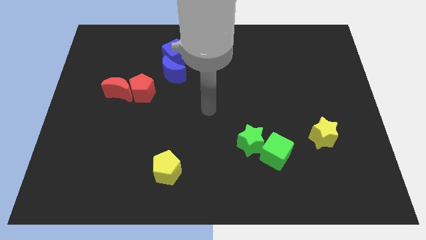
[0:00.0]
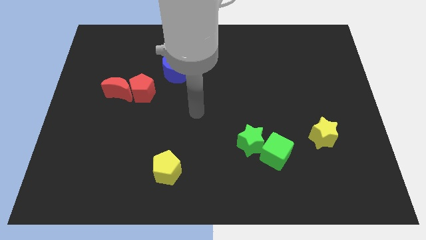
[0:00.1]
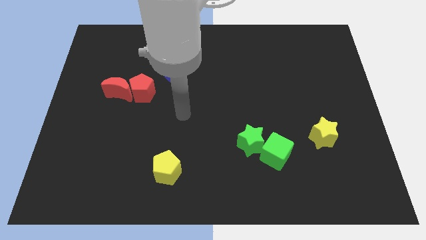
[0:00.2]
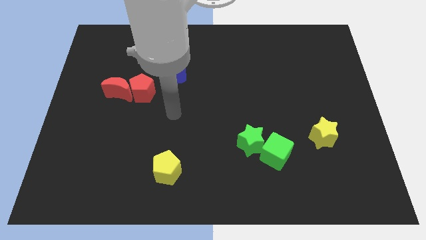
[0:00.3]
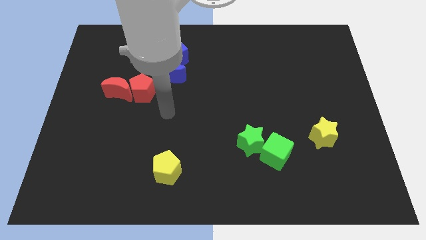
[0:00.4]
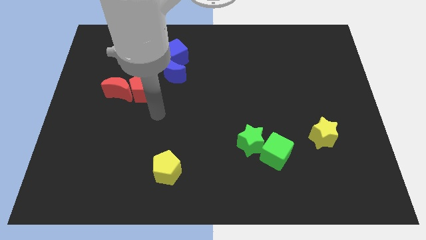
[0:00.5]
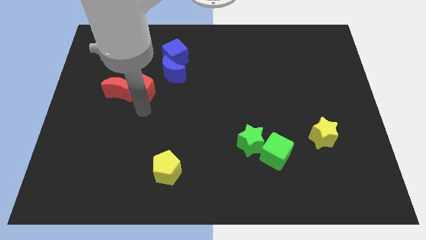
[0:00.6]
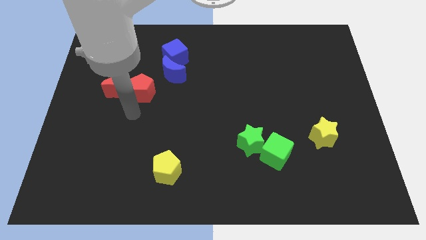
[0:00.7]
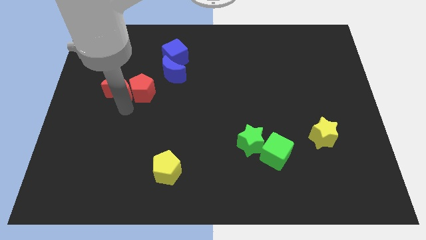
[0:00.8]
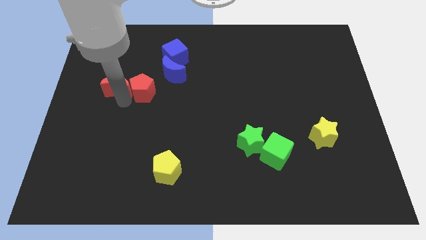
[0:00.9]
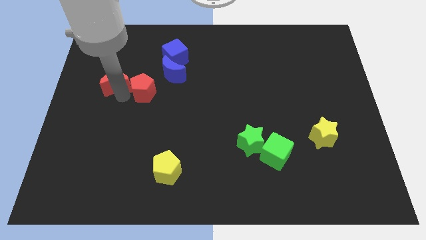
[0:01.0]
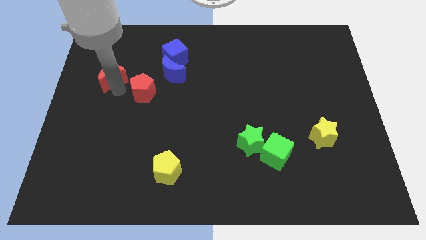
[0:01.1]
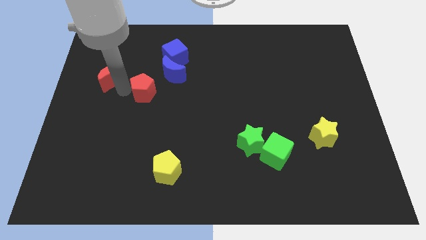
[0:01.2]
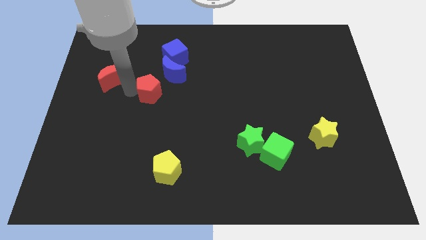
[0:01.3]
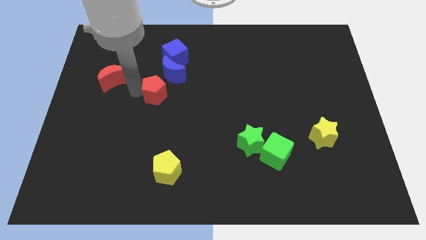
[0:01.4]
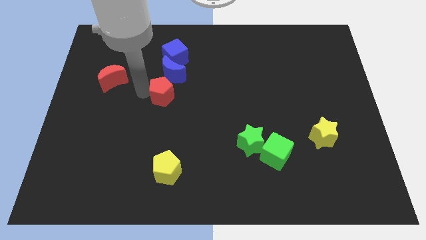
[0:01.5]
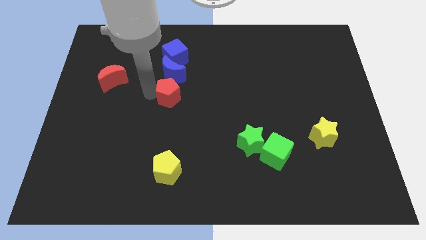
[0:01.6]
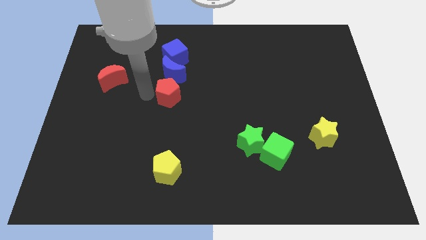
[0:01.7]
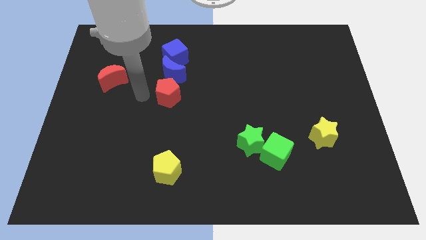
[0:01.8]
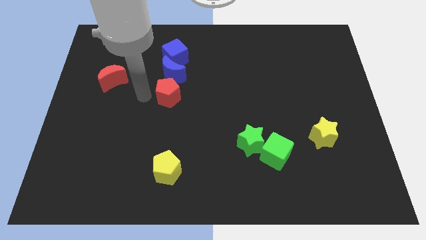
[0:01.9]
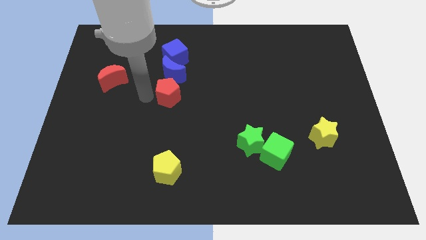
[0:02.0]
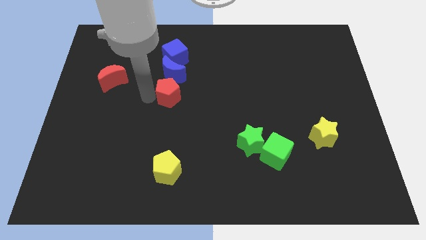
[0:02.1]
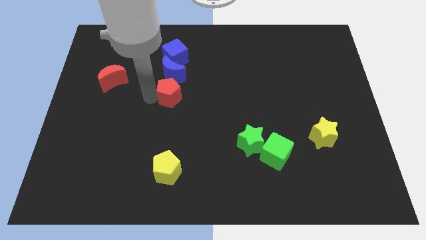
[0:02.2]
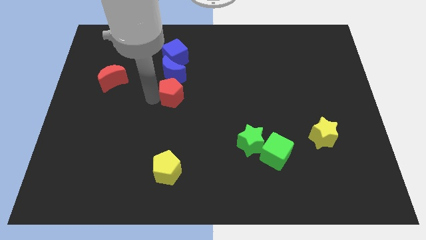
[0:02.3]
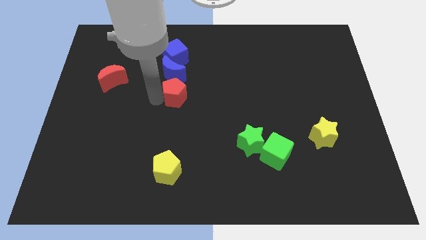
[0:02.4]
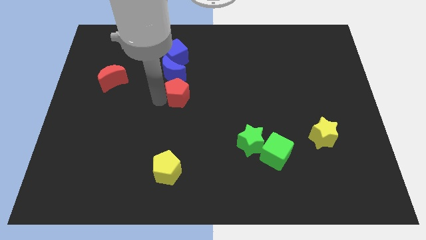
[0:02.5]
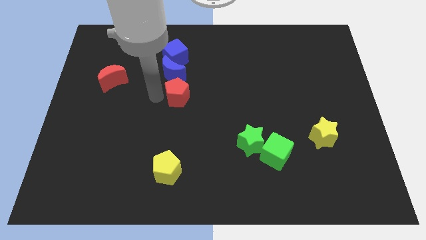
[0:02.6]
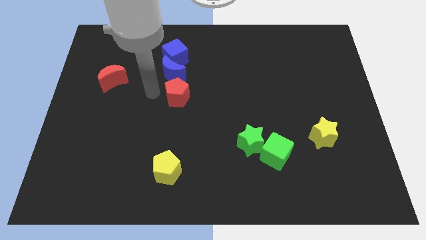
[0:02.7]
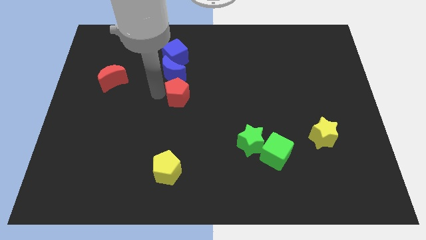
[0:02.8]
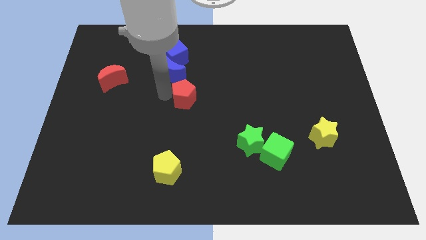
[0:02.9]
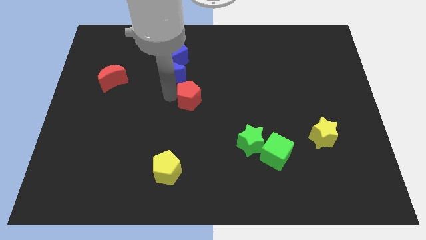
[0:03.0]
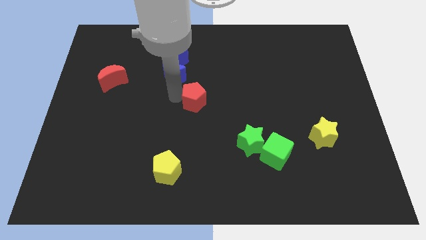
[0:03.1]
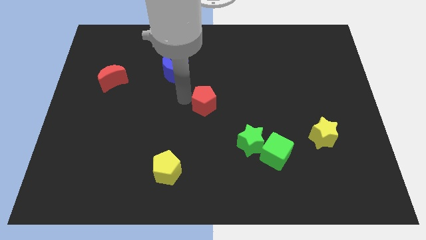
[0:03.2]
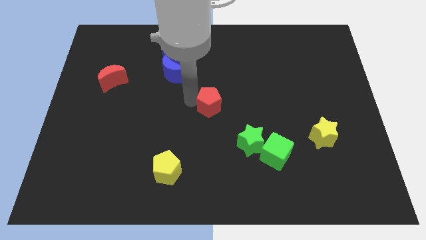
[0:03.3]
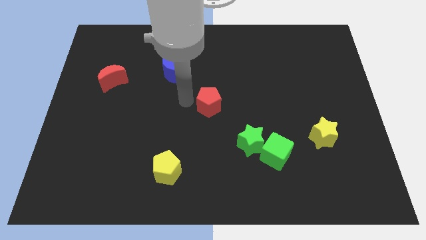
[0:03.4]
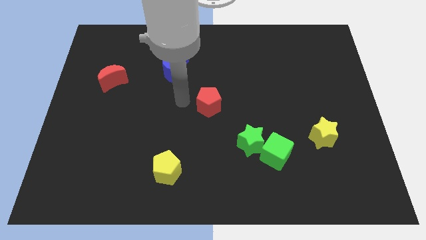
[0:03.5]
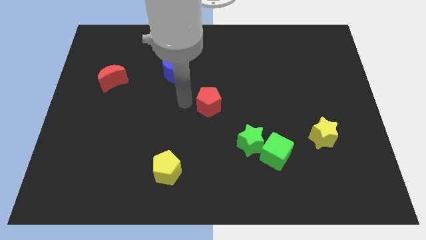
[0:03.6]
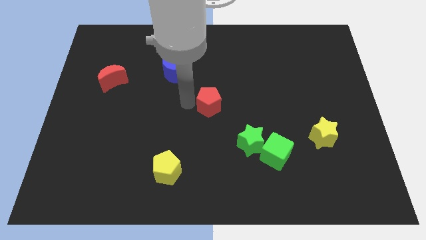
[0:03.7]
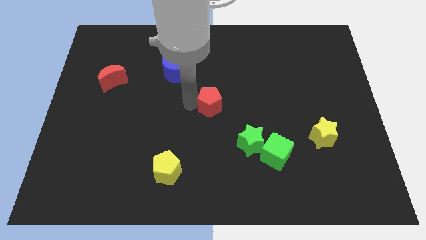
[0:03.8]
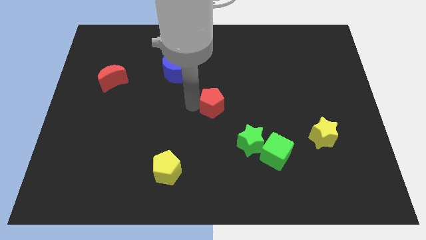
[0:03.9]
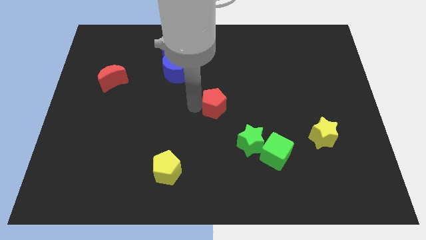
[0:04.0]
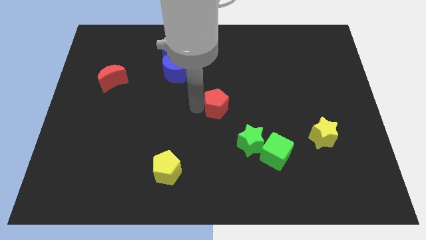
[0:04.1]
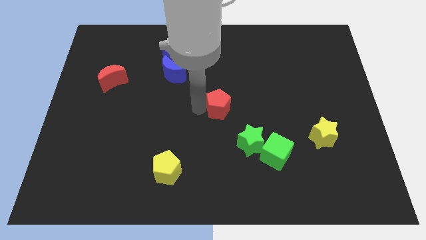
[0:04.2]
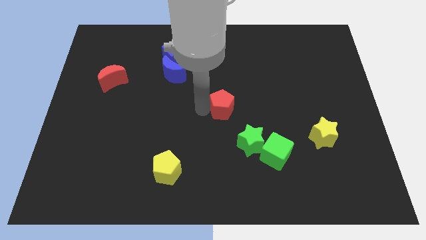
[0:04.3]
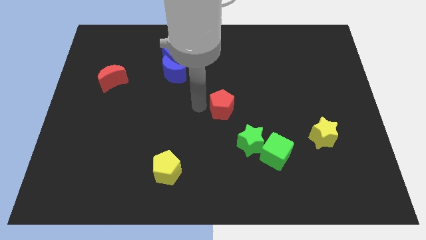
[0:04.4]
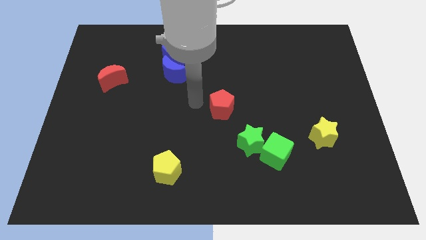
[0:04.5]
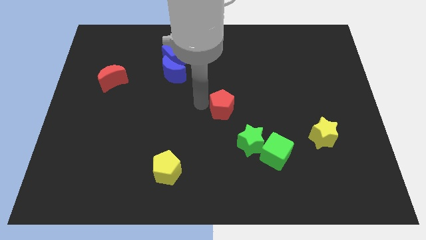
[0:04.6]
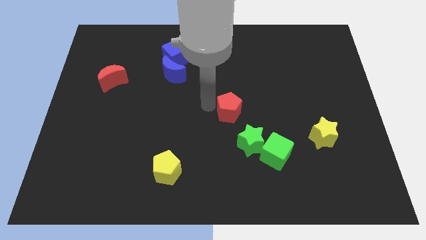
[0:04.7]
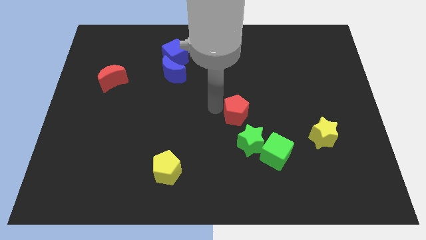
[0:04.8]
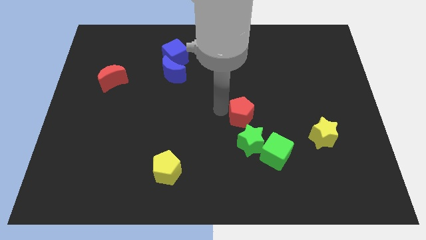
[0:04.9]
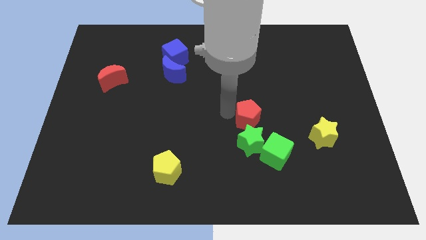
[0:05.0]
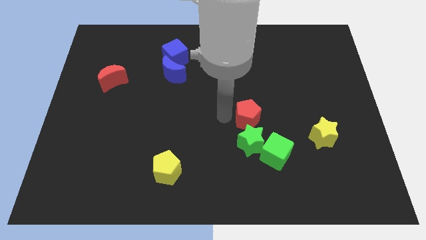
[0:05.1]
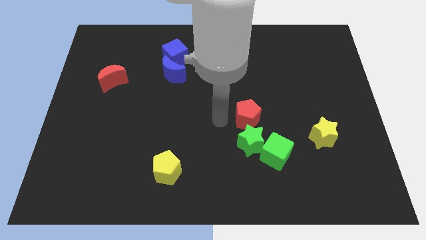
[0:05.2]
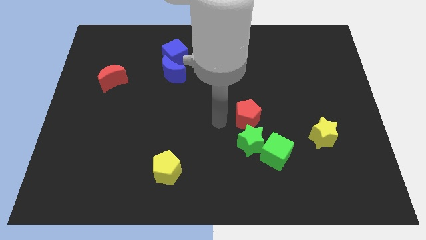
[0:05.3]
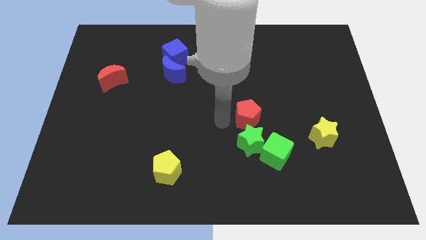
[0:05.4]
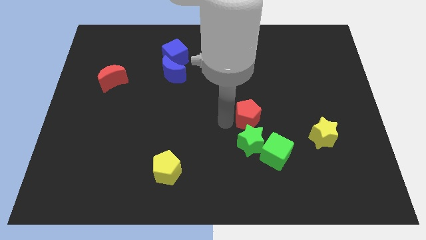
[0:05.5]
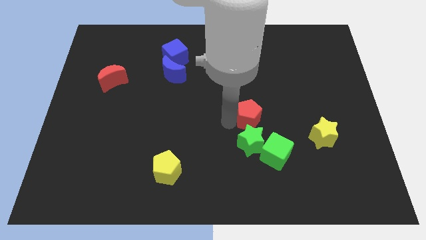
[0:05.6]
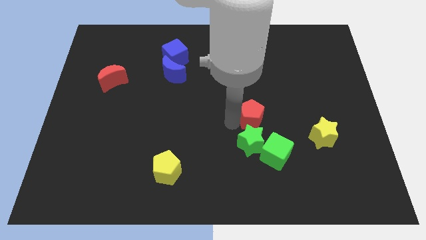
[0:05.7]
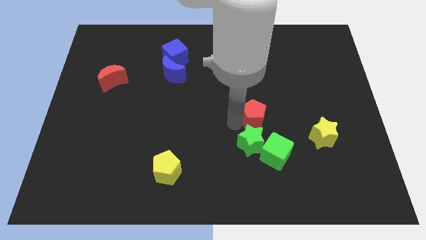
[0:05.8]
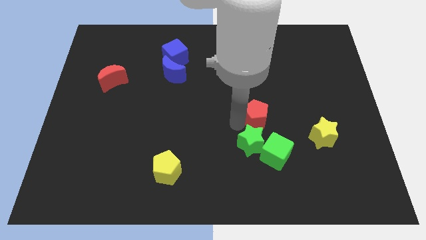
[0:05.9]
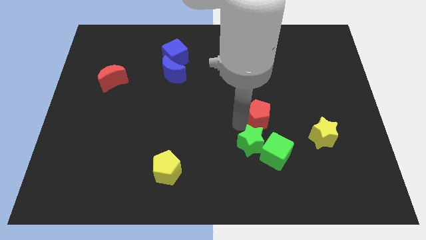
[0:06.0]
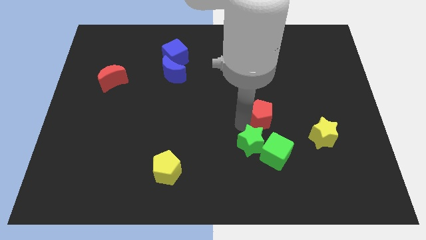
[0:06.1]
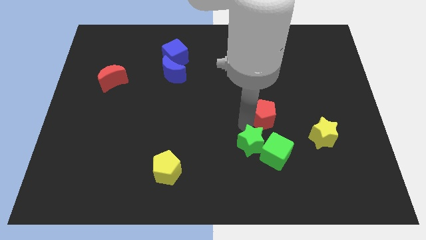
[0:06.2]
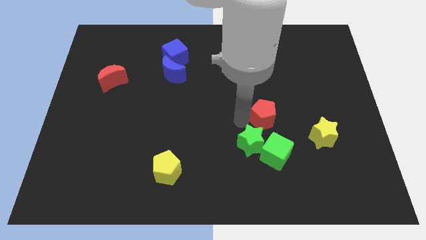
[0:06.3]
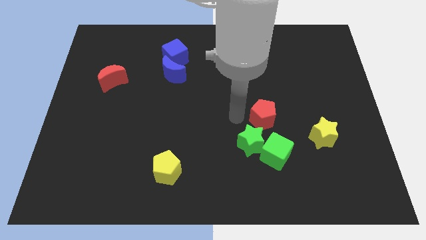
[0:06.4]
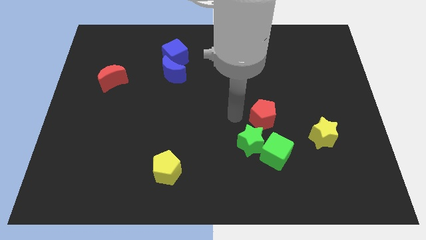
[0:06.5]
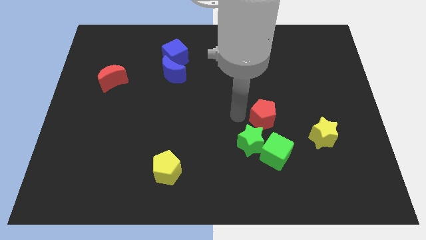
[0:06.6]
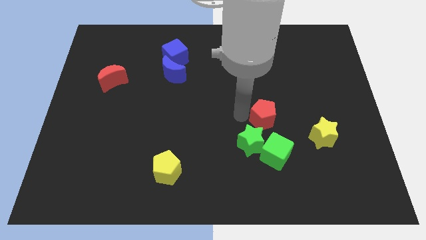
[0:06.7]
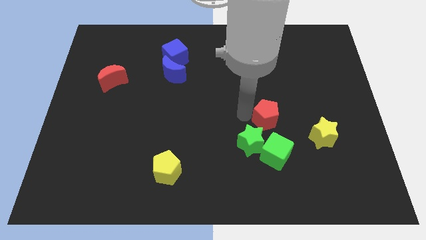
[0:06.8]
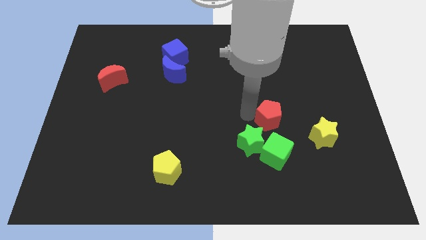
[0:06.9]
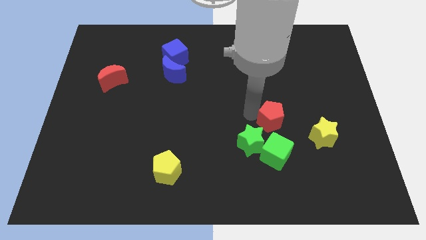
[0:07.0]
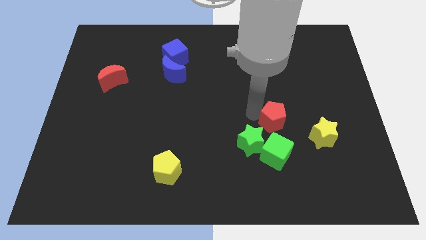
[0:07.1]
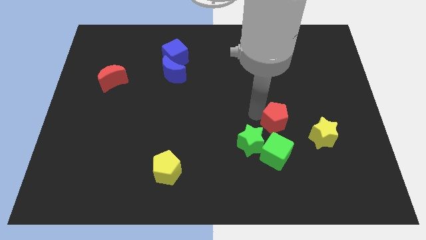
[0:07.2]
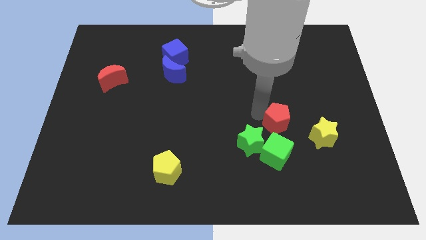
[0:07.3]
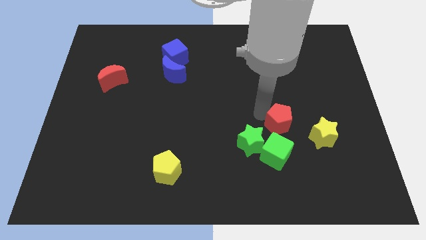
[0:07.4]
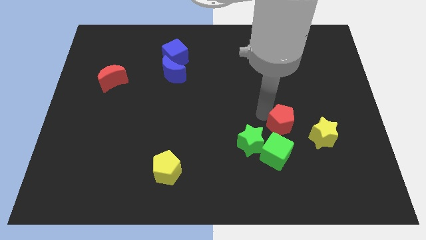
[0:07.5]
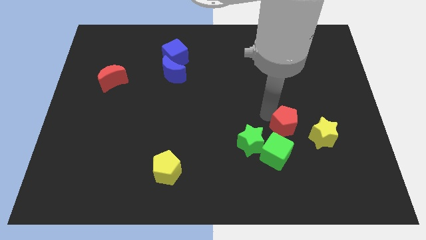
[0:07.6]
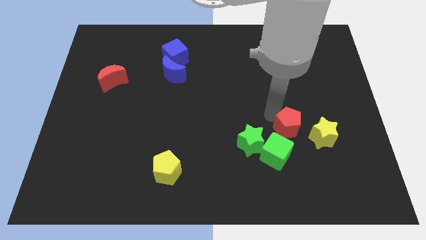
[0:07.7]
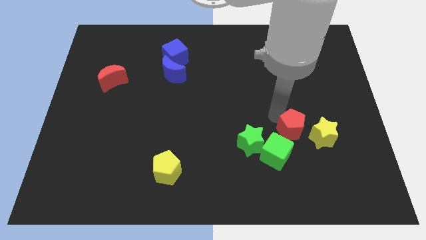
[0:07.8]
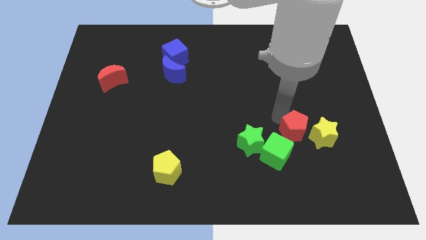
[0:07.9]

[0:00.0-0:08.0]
push the red pentagon next to the yellow star
